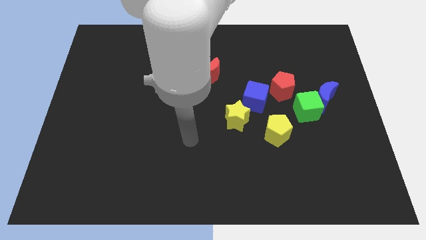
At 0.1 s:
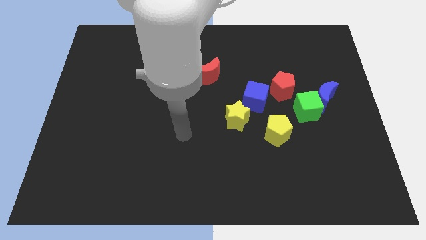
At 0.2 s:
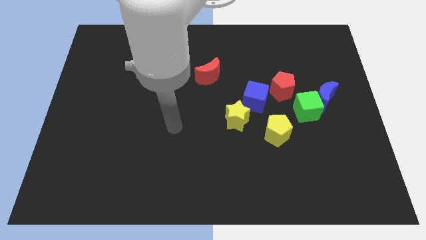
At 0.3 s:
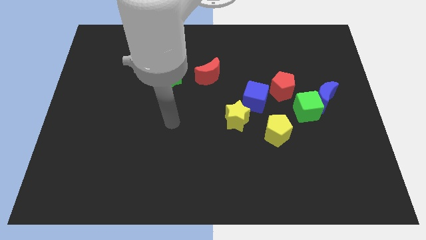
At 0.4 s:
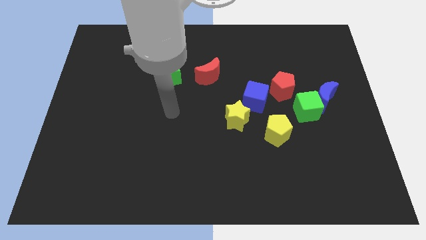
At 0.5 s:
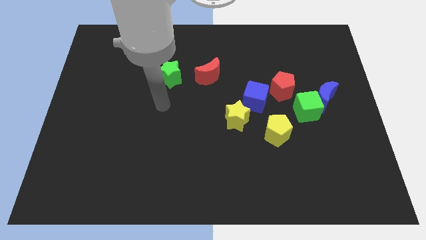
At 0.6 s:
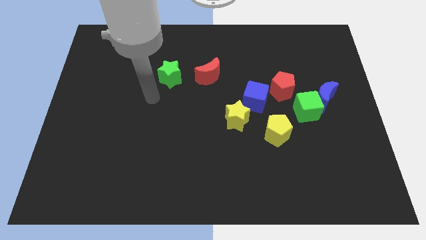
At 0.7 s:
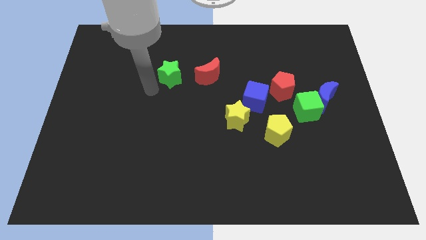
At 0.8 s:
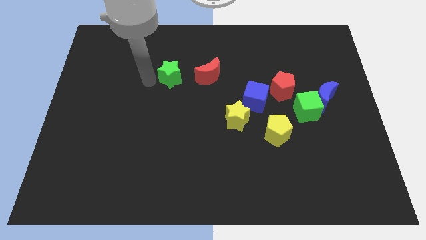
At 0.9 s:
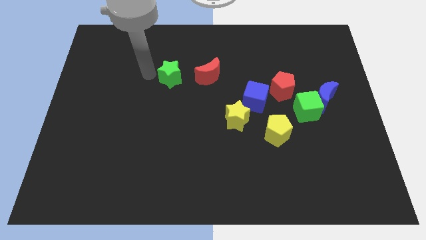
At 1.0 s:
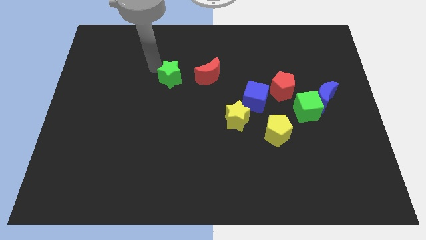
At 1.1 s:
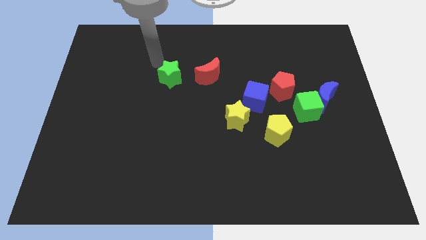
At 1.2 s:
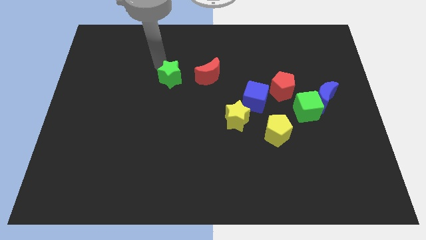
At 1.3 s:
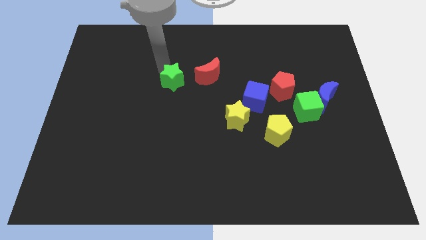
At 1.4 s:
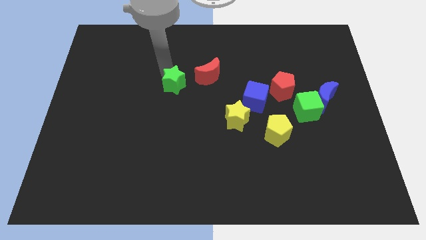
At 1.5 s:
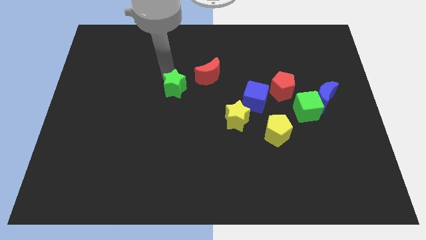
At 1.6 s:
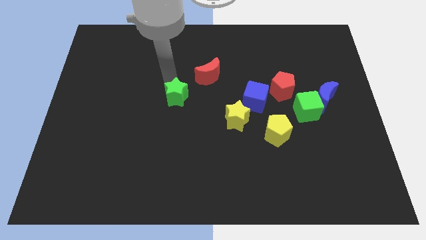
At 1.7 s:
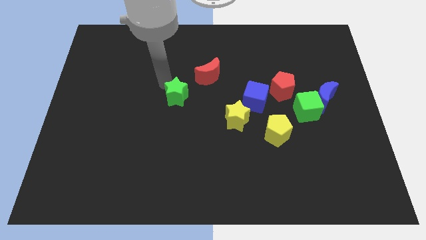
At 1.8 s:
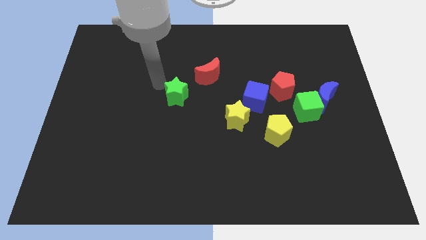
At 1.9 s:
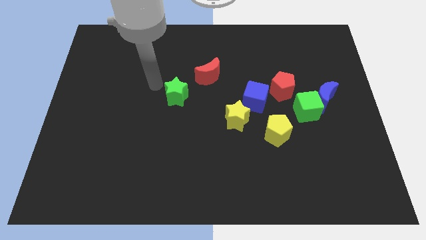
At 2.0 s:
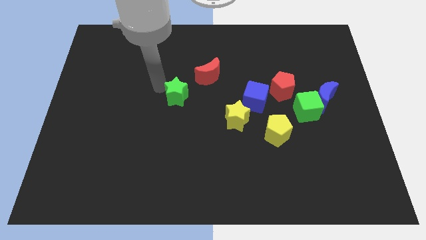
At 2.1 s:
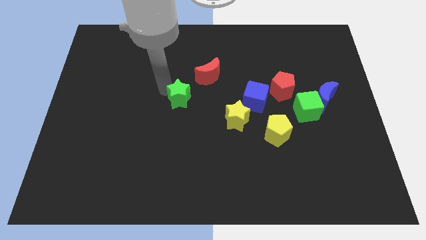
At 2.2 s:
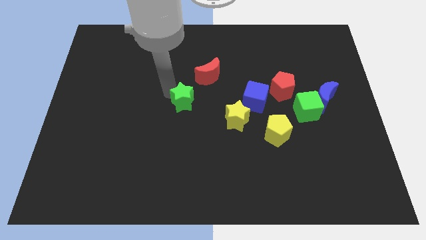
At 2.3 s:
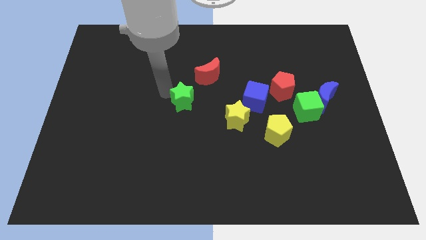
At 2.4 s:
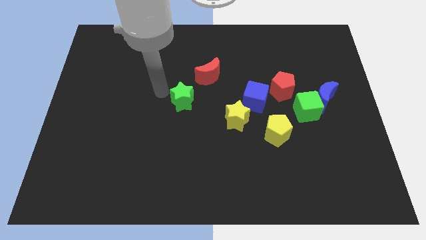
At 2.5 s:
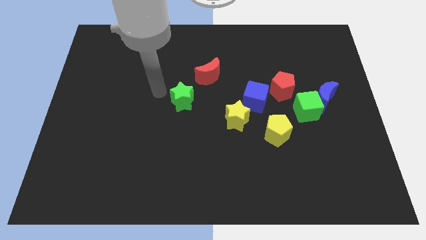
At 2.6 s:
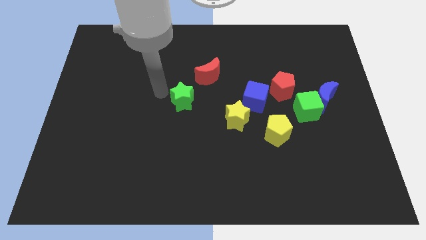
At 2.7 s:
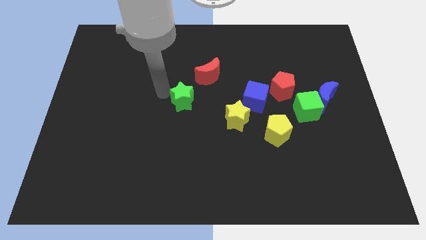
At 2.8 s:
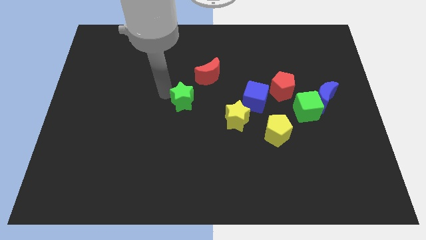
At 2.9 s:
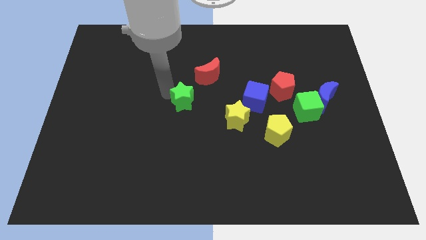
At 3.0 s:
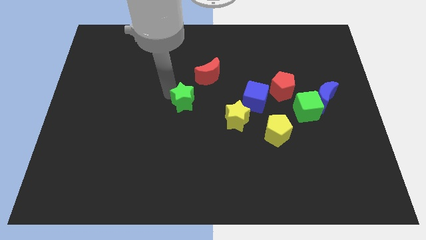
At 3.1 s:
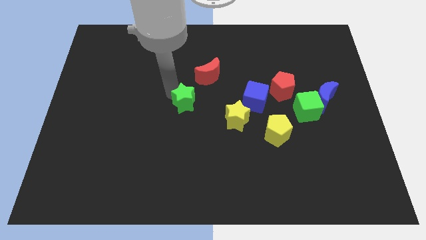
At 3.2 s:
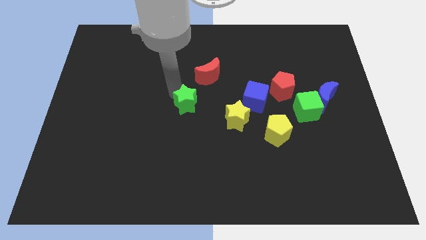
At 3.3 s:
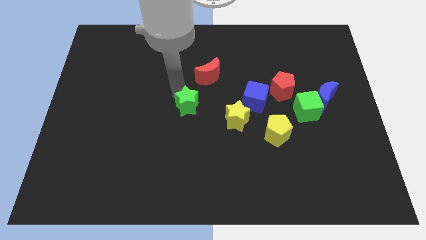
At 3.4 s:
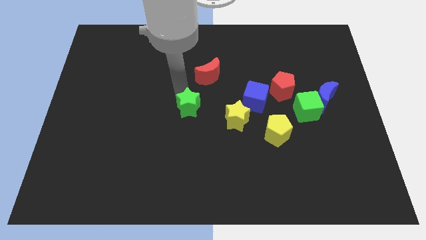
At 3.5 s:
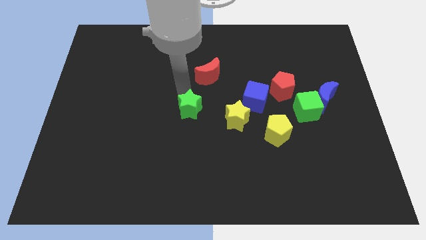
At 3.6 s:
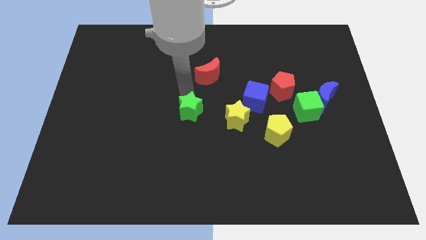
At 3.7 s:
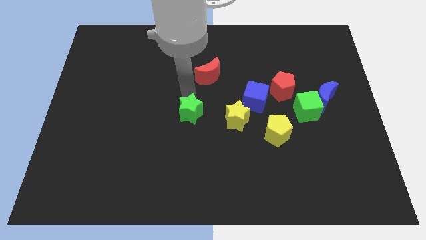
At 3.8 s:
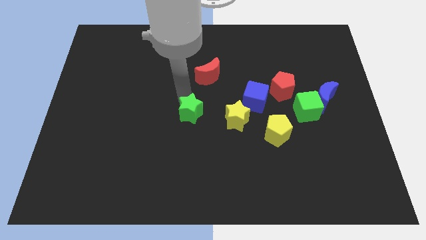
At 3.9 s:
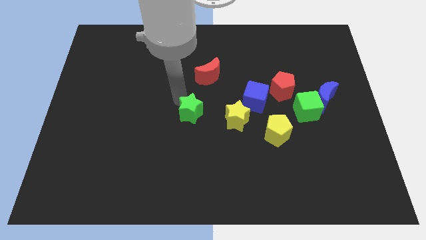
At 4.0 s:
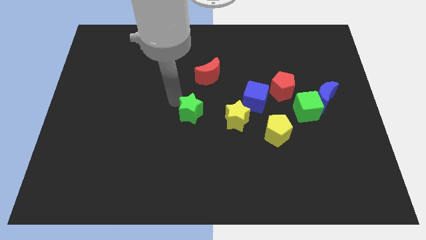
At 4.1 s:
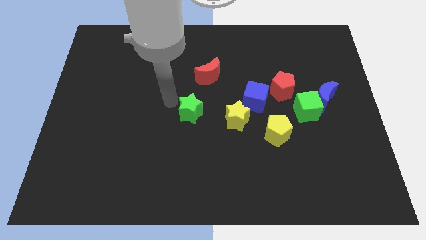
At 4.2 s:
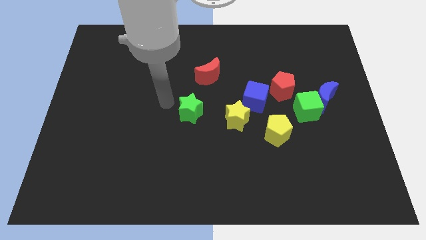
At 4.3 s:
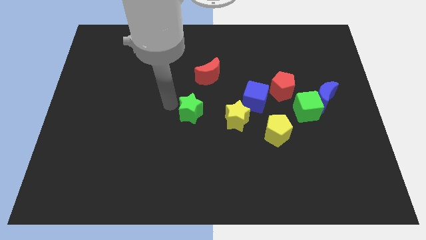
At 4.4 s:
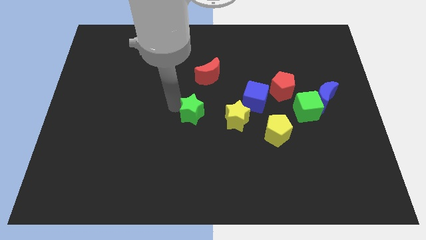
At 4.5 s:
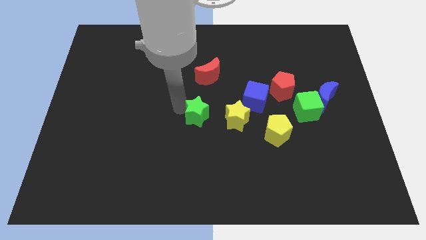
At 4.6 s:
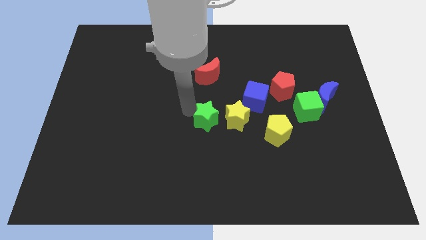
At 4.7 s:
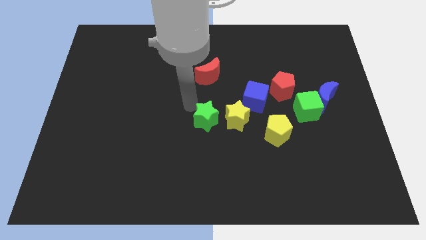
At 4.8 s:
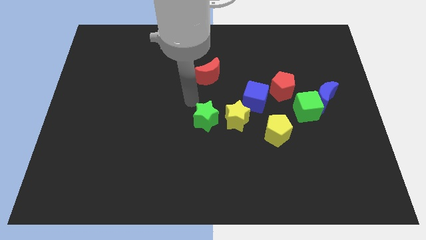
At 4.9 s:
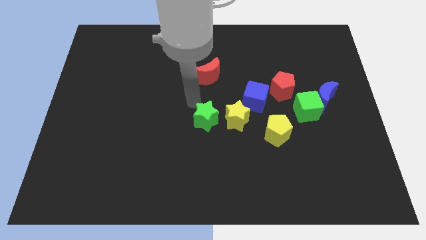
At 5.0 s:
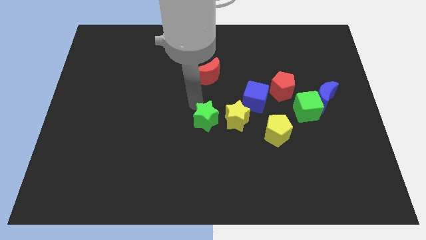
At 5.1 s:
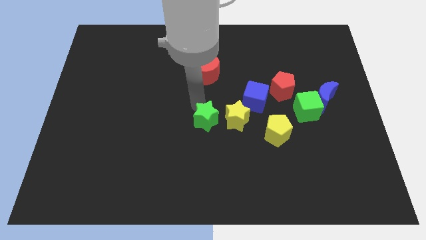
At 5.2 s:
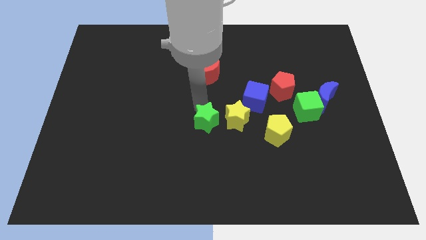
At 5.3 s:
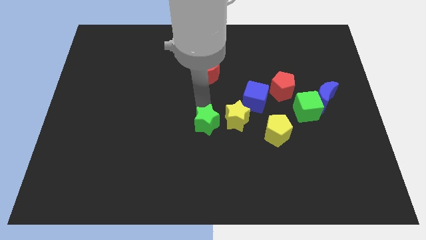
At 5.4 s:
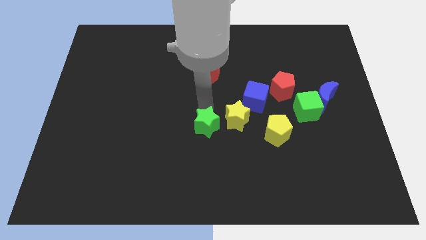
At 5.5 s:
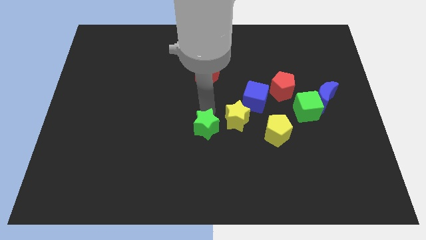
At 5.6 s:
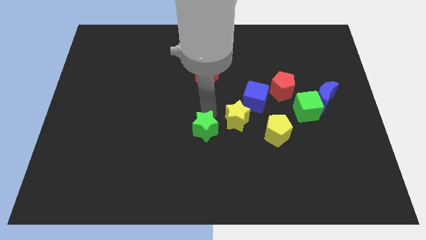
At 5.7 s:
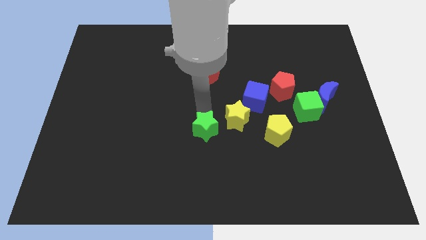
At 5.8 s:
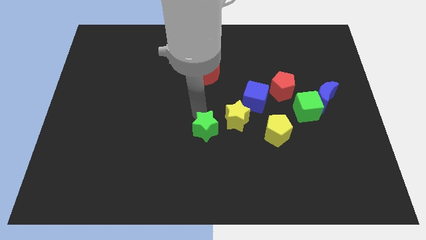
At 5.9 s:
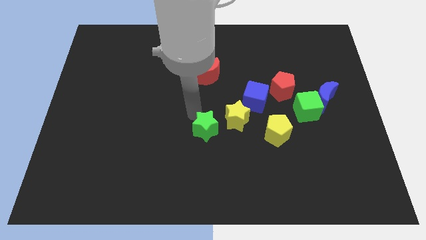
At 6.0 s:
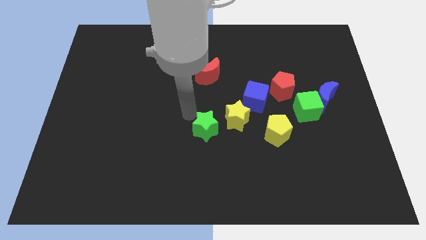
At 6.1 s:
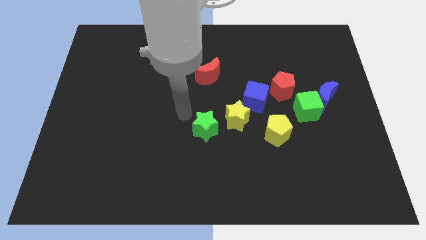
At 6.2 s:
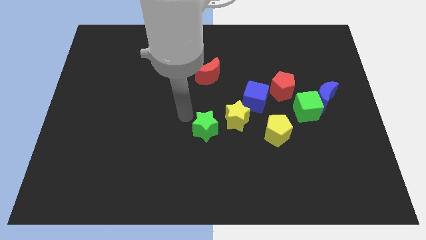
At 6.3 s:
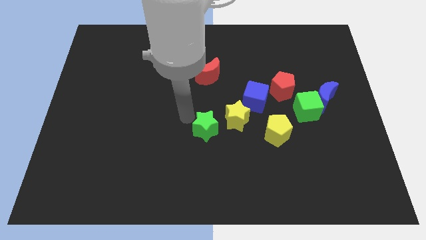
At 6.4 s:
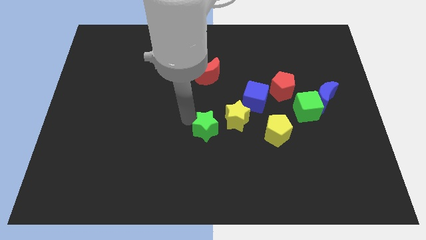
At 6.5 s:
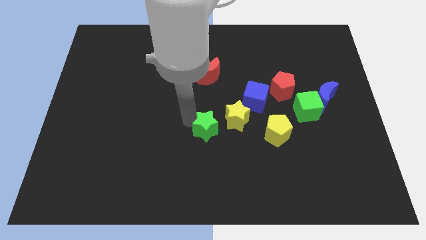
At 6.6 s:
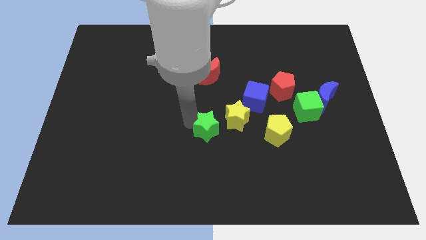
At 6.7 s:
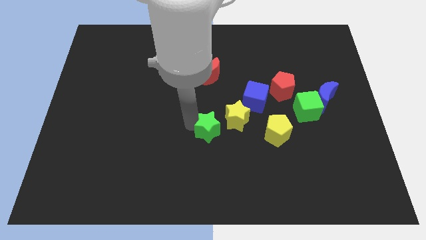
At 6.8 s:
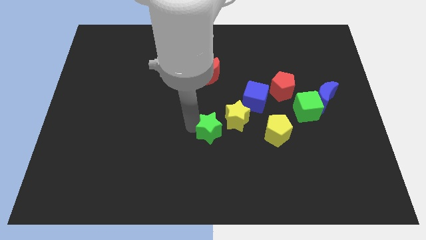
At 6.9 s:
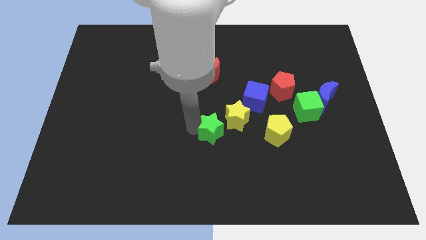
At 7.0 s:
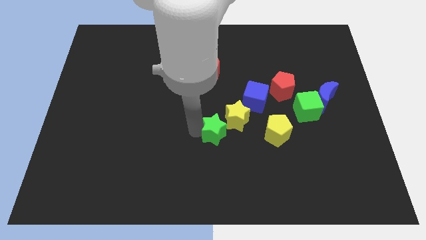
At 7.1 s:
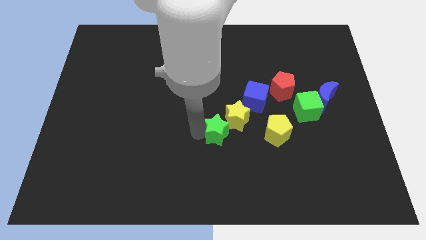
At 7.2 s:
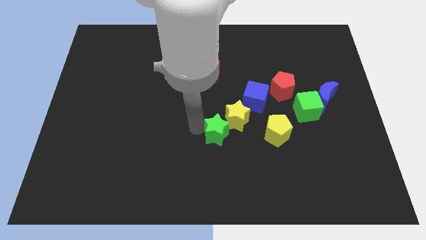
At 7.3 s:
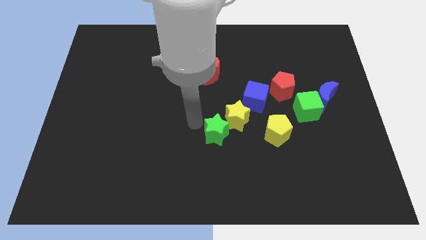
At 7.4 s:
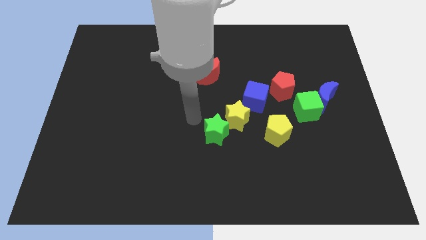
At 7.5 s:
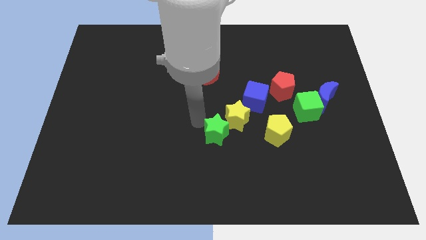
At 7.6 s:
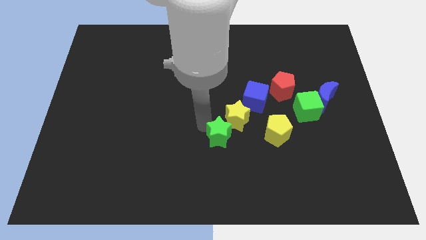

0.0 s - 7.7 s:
slide the green star downwards and right

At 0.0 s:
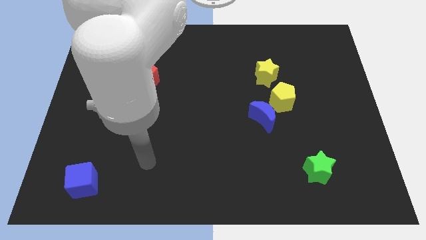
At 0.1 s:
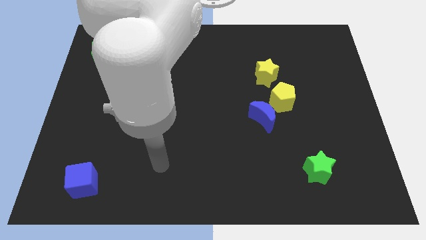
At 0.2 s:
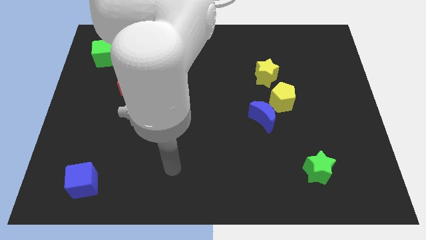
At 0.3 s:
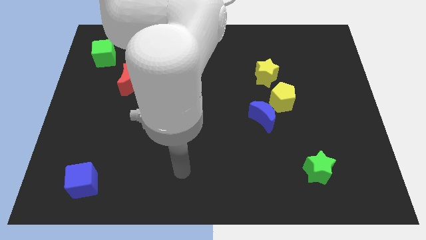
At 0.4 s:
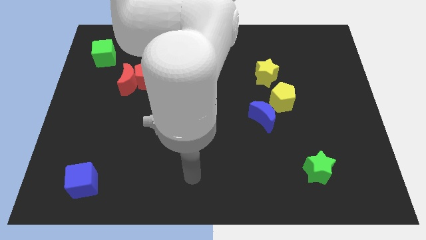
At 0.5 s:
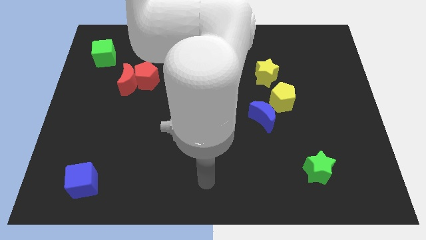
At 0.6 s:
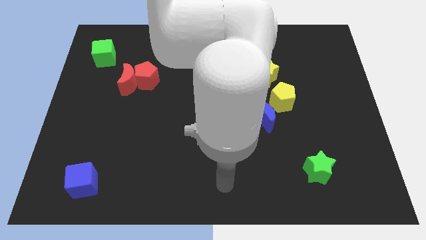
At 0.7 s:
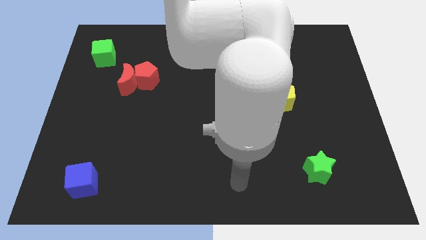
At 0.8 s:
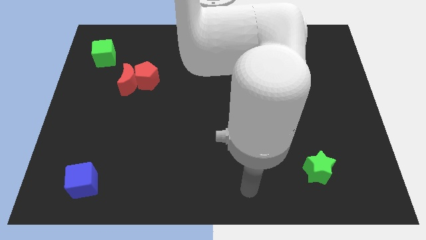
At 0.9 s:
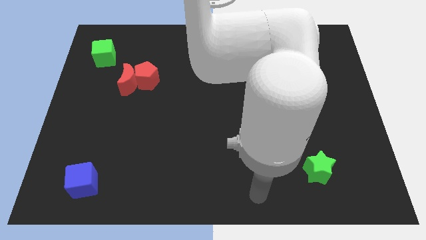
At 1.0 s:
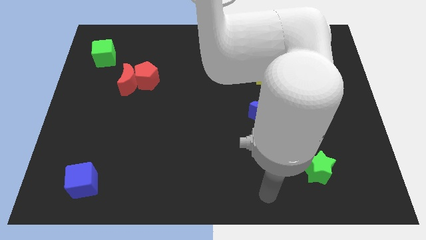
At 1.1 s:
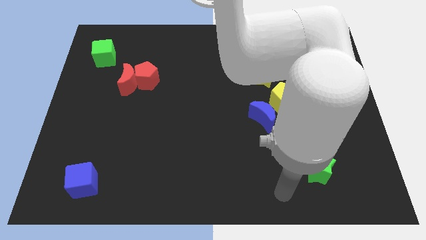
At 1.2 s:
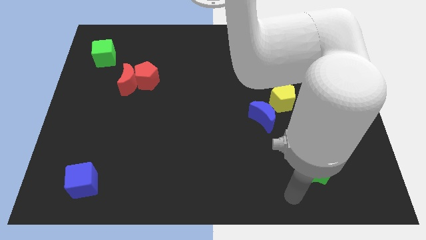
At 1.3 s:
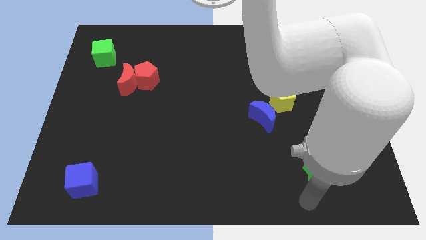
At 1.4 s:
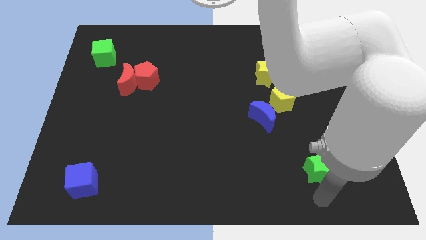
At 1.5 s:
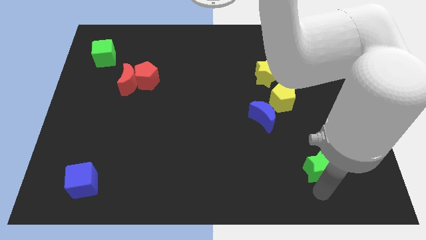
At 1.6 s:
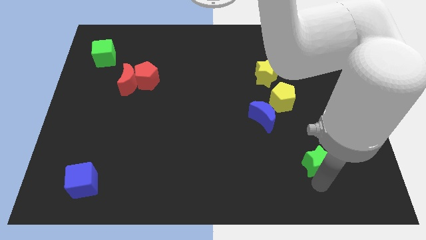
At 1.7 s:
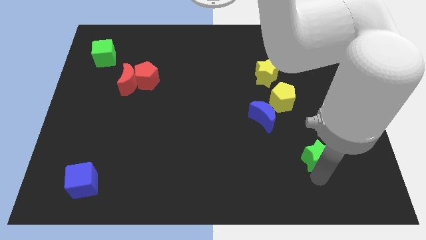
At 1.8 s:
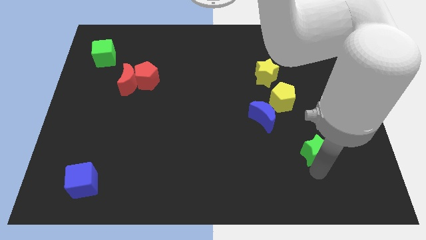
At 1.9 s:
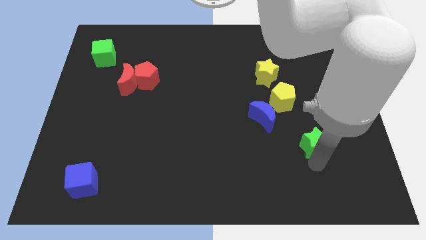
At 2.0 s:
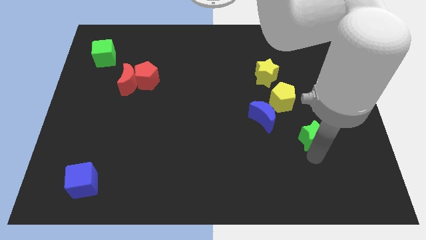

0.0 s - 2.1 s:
push the green star upwards somewhat
